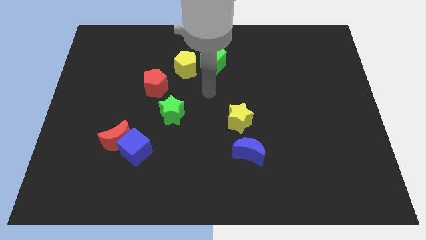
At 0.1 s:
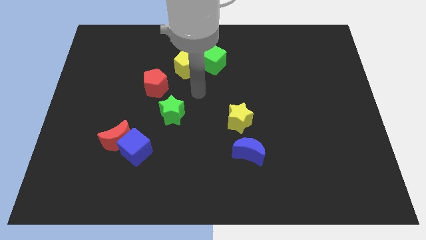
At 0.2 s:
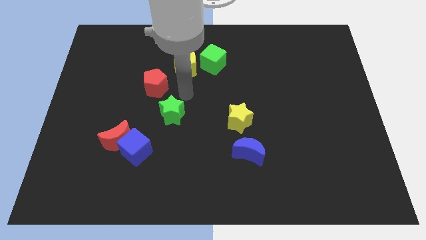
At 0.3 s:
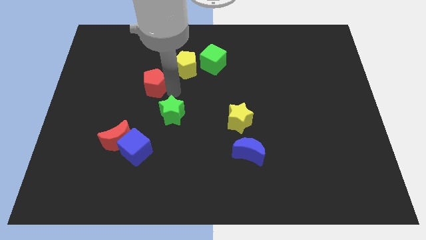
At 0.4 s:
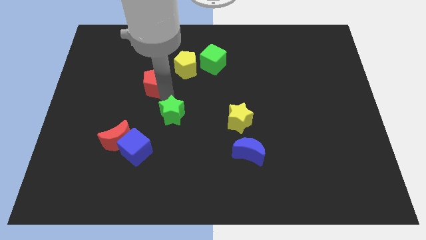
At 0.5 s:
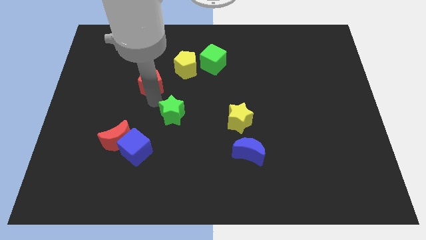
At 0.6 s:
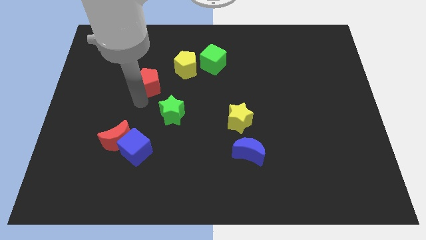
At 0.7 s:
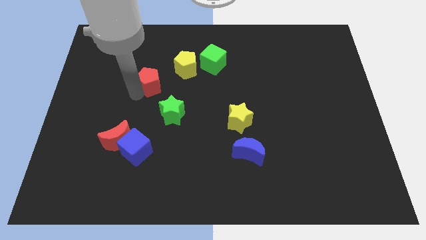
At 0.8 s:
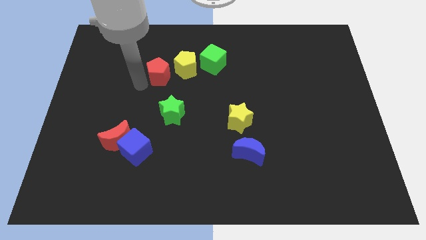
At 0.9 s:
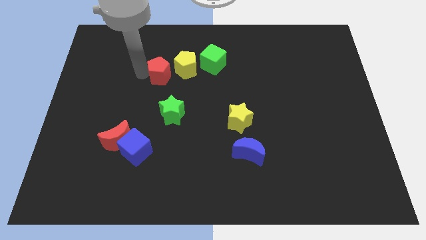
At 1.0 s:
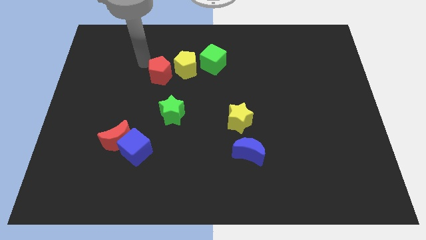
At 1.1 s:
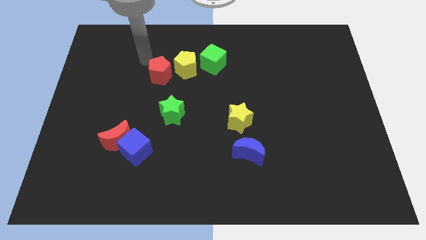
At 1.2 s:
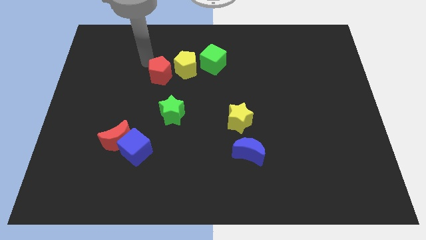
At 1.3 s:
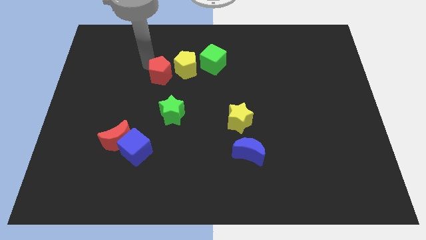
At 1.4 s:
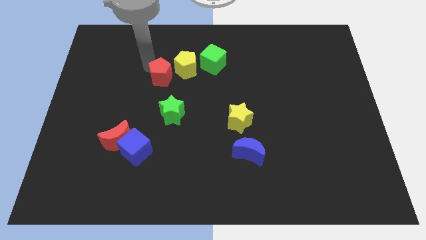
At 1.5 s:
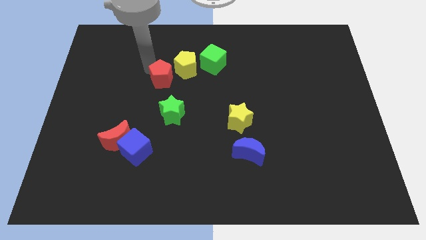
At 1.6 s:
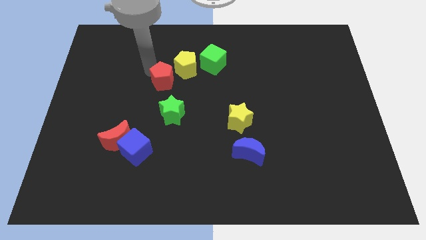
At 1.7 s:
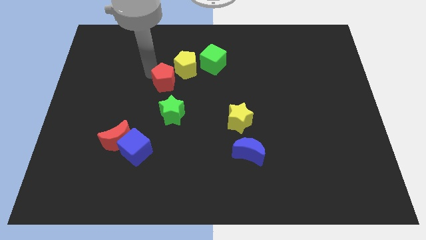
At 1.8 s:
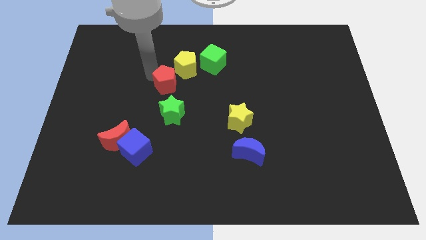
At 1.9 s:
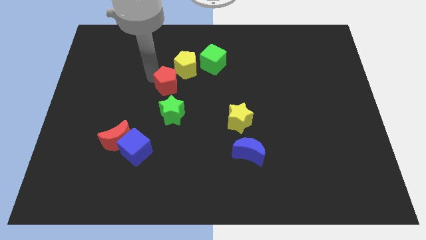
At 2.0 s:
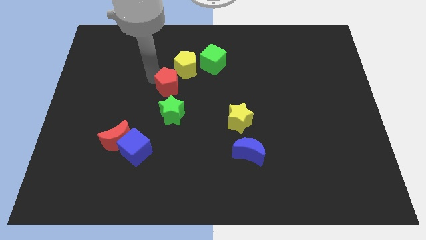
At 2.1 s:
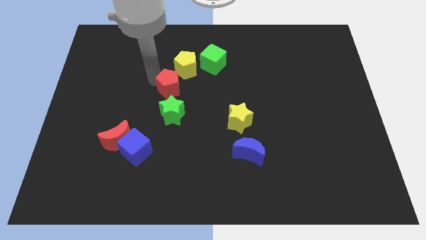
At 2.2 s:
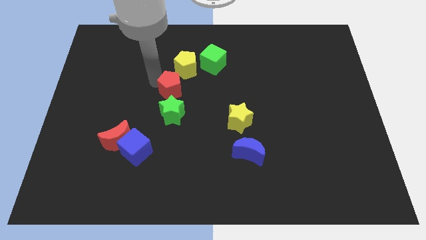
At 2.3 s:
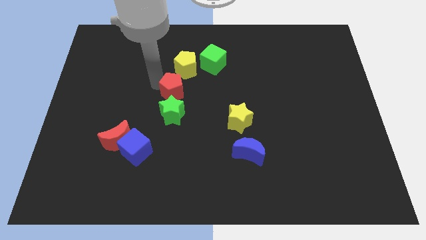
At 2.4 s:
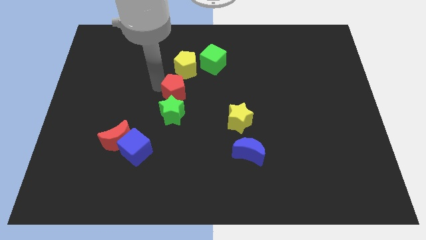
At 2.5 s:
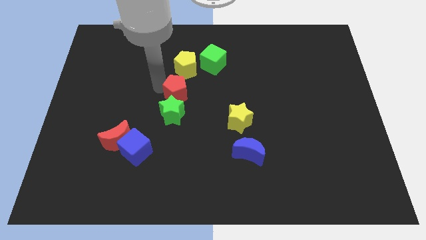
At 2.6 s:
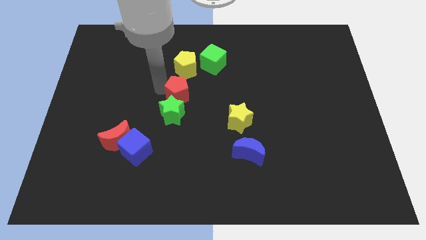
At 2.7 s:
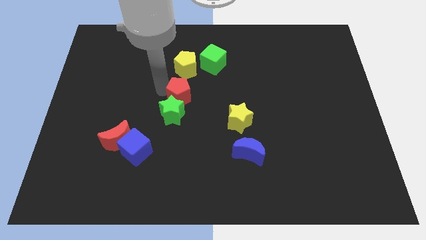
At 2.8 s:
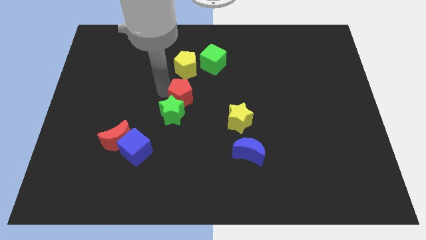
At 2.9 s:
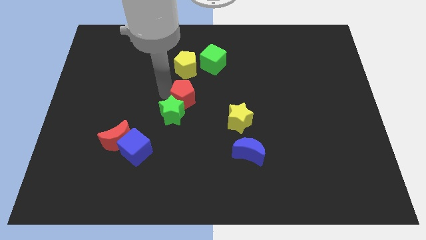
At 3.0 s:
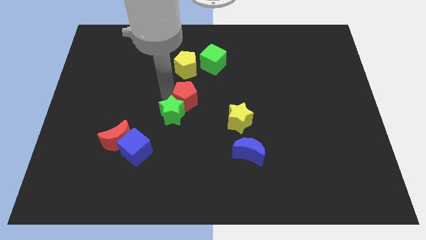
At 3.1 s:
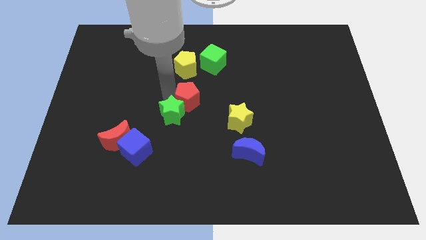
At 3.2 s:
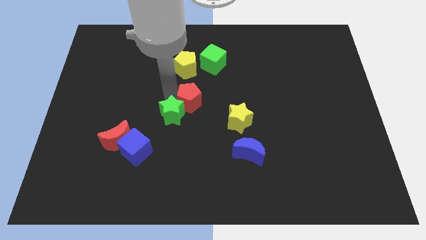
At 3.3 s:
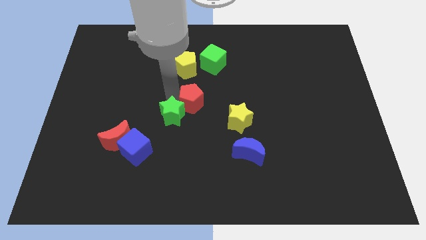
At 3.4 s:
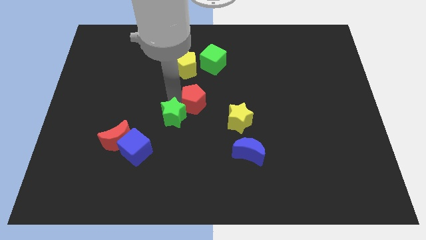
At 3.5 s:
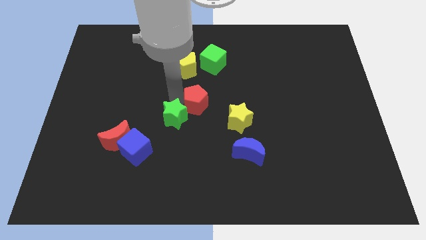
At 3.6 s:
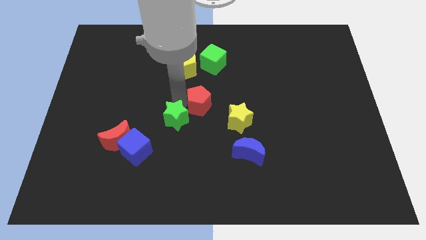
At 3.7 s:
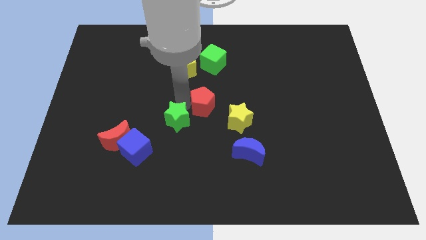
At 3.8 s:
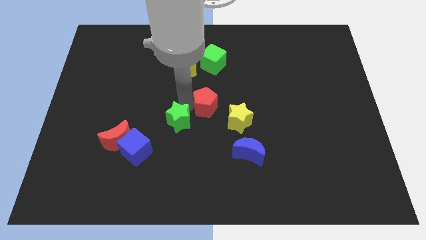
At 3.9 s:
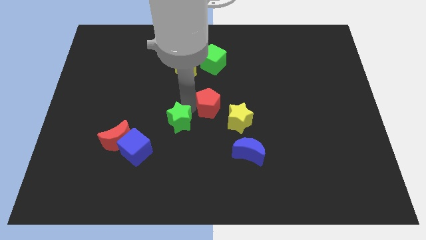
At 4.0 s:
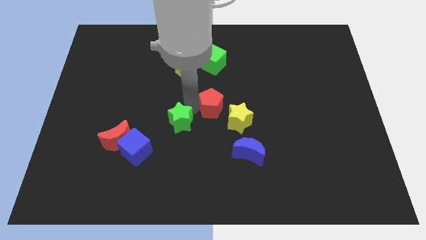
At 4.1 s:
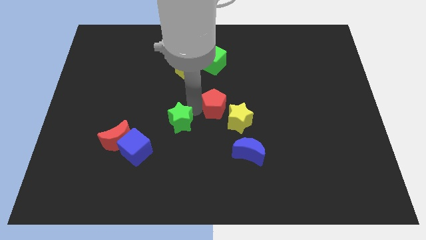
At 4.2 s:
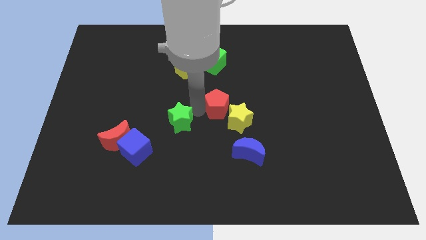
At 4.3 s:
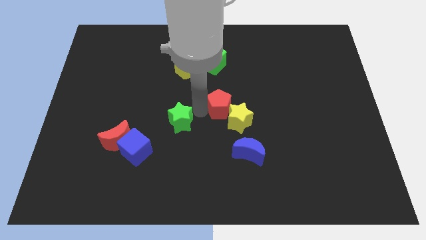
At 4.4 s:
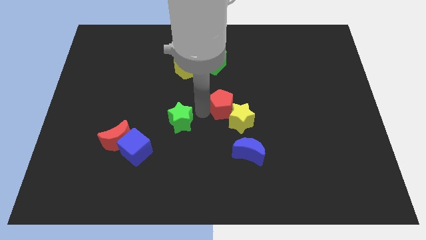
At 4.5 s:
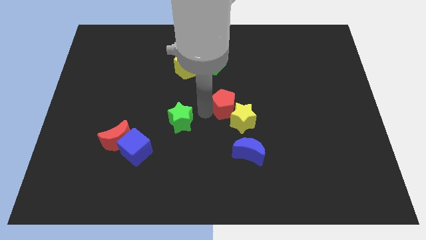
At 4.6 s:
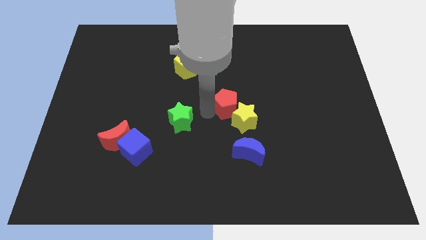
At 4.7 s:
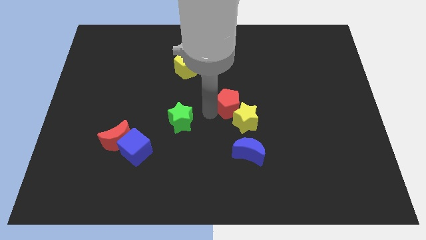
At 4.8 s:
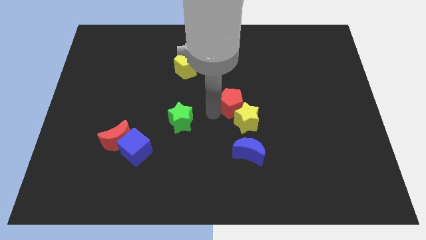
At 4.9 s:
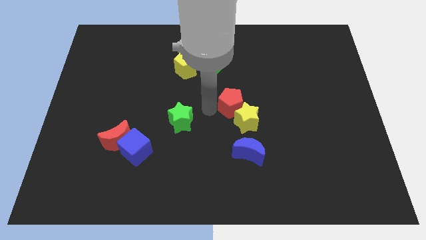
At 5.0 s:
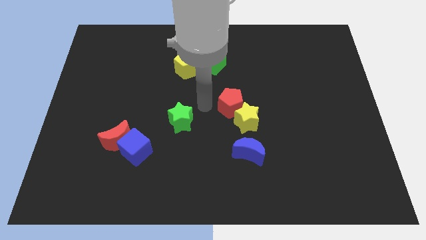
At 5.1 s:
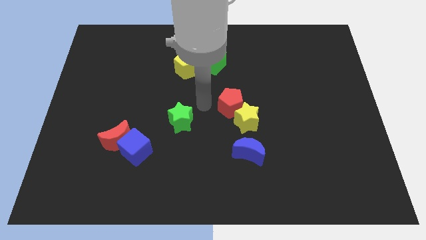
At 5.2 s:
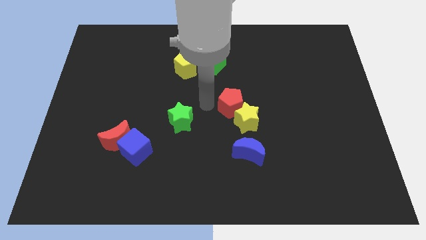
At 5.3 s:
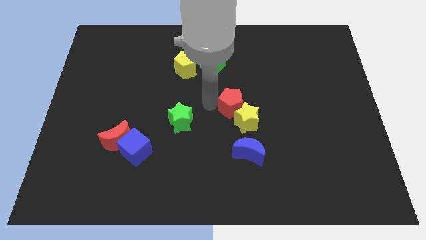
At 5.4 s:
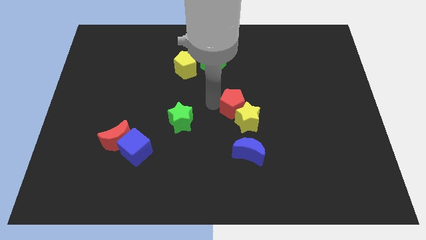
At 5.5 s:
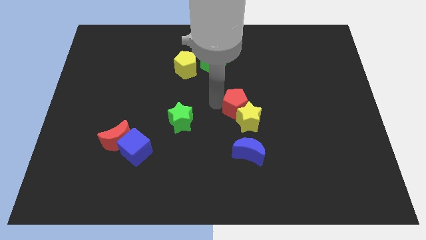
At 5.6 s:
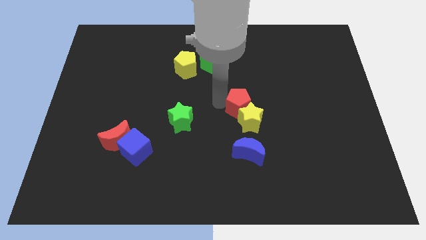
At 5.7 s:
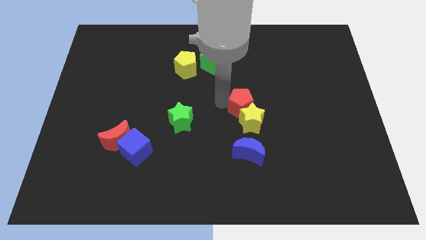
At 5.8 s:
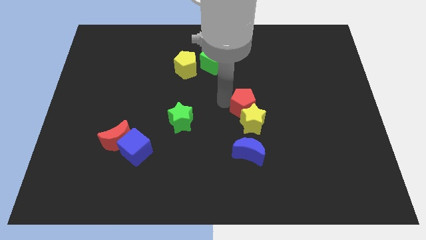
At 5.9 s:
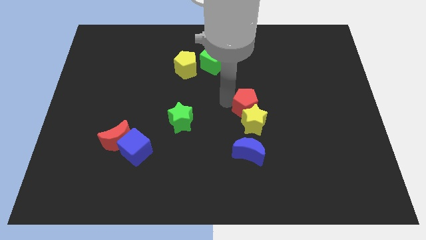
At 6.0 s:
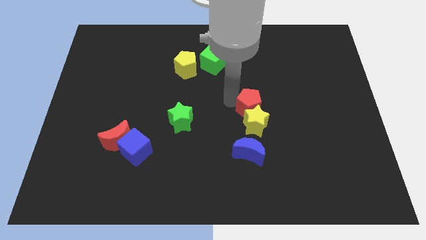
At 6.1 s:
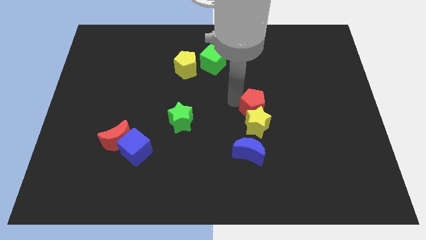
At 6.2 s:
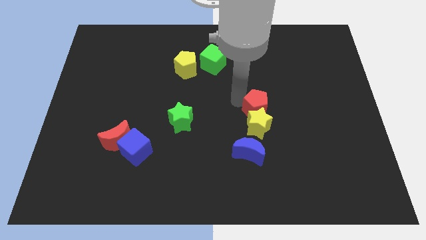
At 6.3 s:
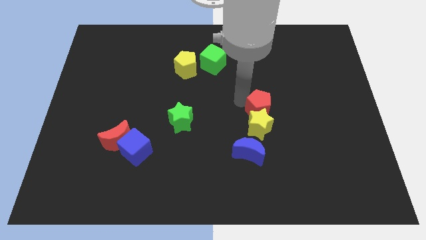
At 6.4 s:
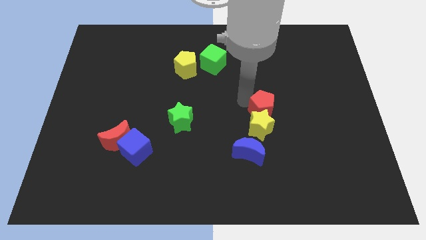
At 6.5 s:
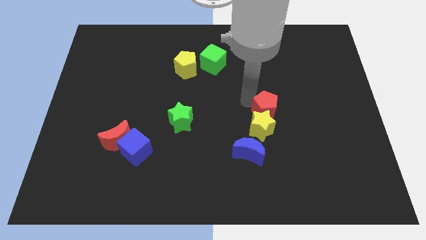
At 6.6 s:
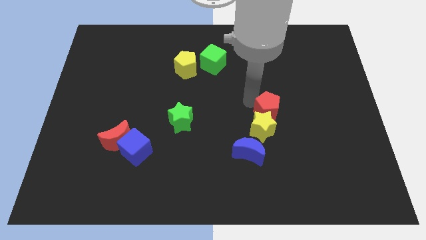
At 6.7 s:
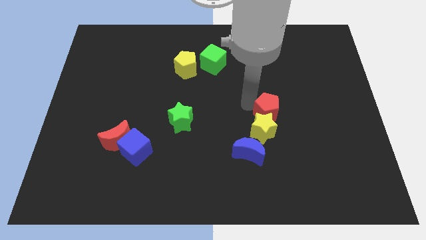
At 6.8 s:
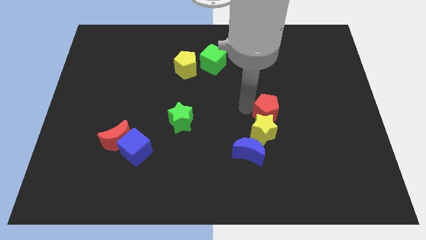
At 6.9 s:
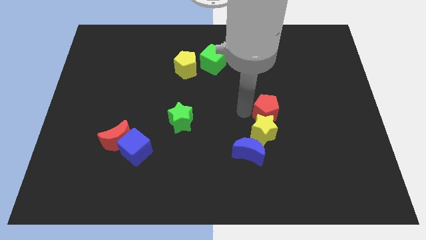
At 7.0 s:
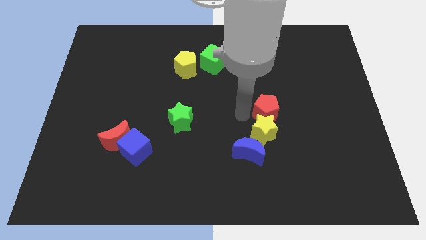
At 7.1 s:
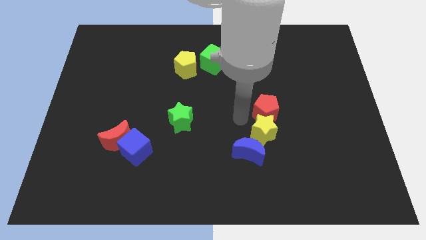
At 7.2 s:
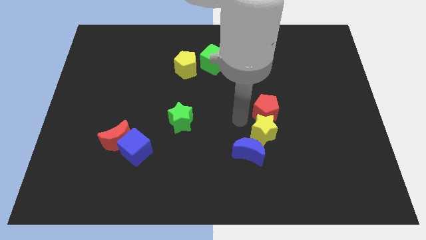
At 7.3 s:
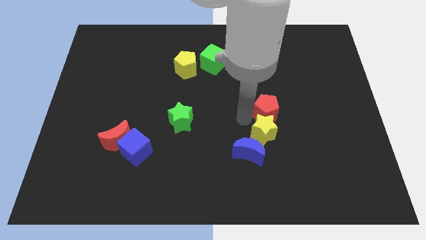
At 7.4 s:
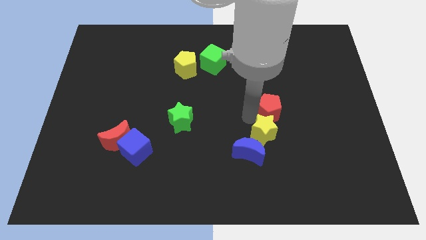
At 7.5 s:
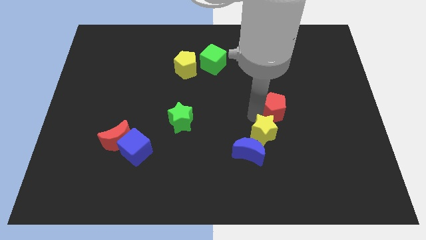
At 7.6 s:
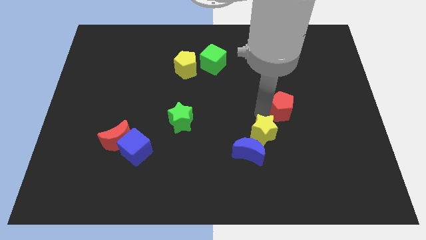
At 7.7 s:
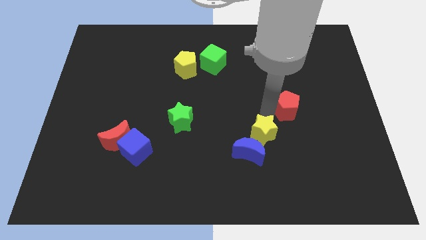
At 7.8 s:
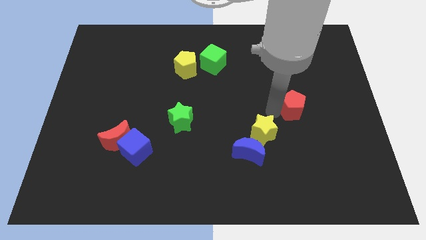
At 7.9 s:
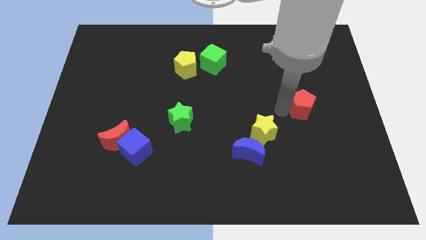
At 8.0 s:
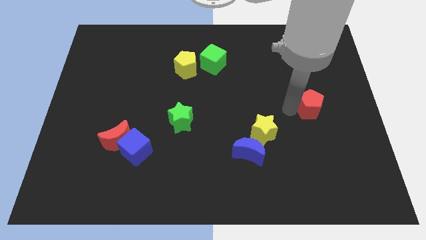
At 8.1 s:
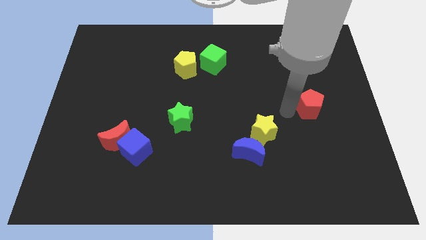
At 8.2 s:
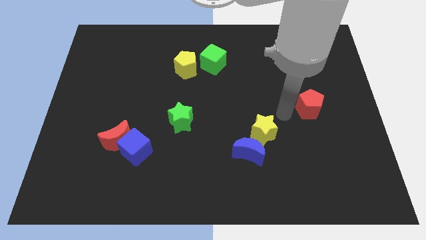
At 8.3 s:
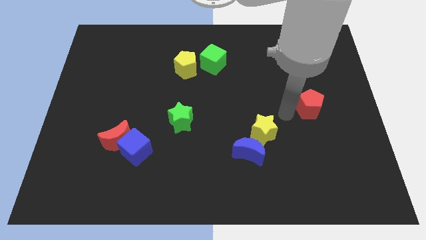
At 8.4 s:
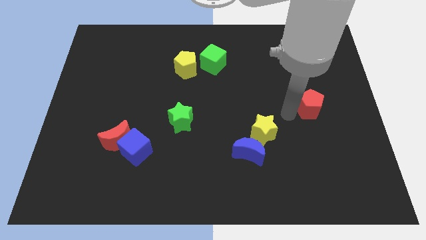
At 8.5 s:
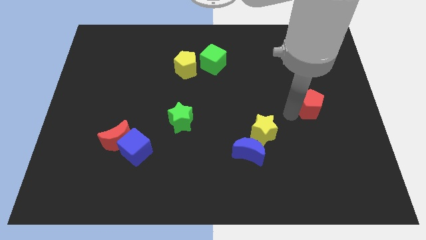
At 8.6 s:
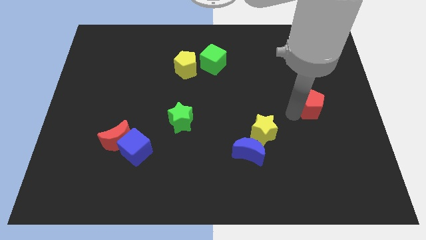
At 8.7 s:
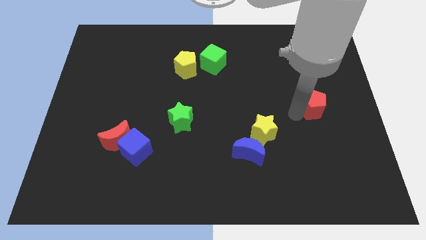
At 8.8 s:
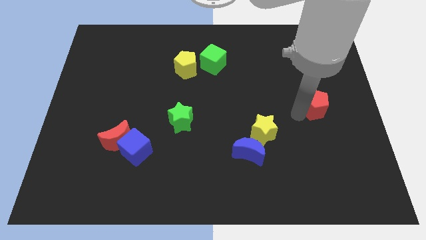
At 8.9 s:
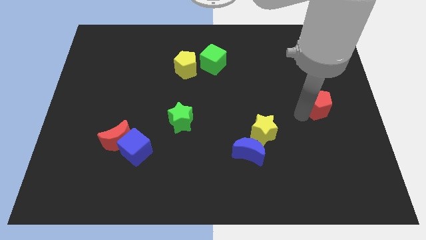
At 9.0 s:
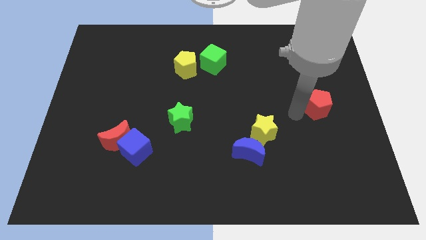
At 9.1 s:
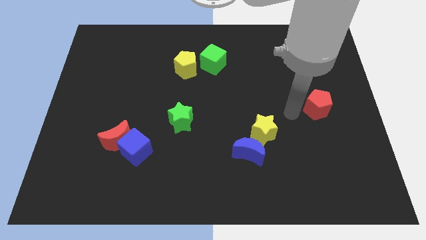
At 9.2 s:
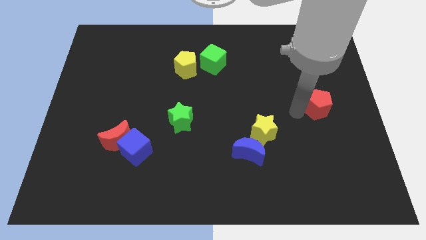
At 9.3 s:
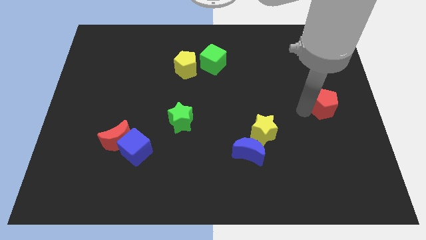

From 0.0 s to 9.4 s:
put the red pentagon to the center right
